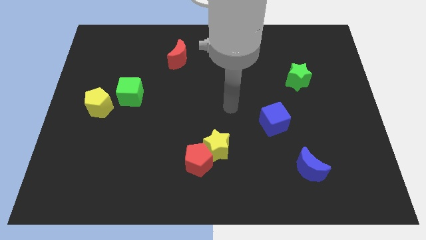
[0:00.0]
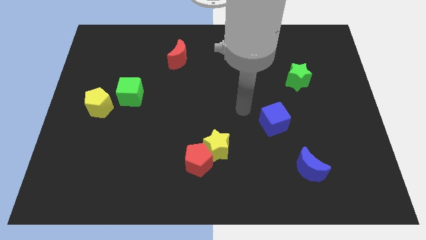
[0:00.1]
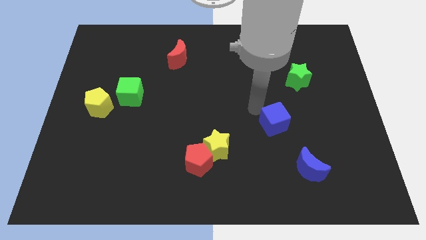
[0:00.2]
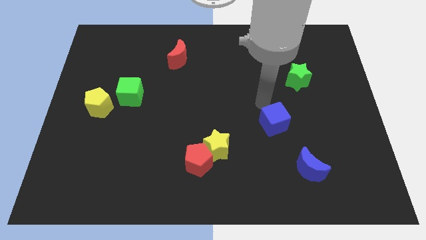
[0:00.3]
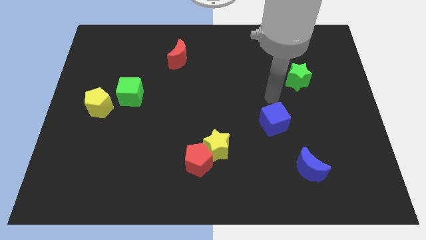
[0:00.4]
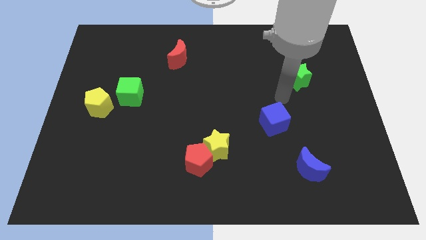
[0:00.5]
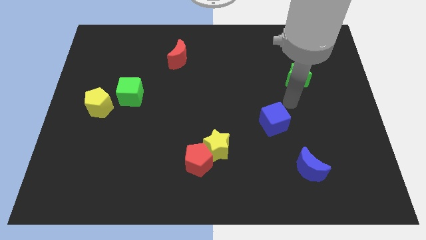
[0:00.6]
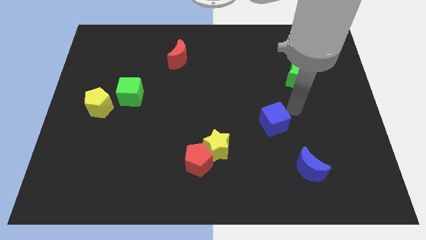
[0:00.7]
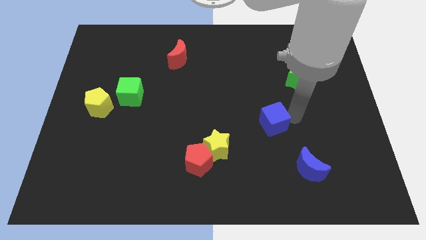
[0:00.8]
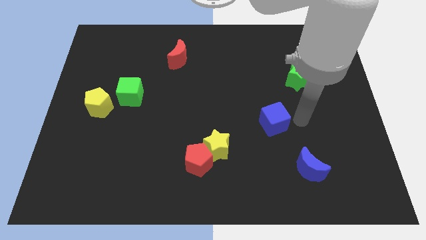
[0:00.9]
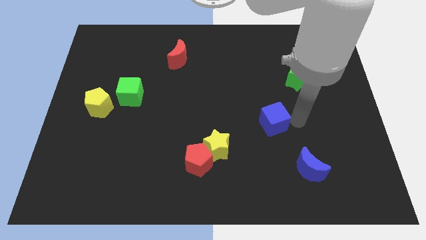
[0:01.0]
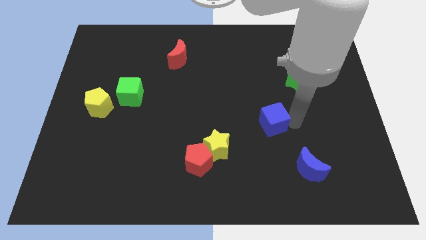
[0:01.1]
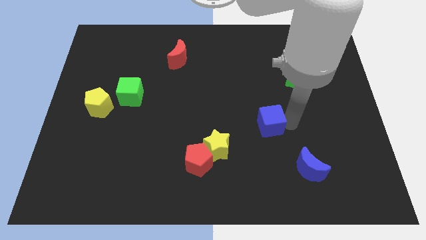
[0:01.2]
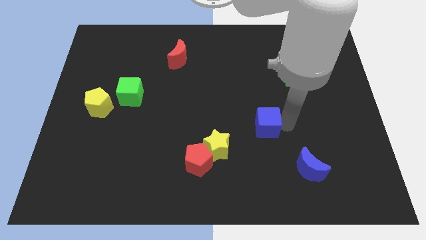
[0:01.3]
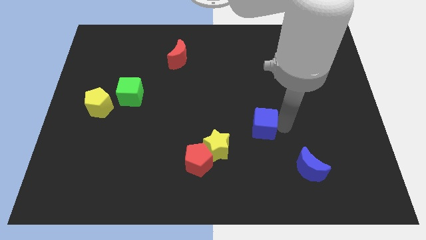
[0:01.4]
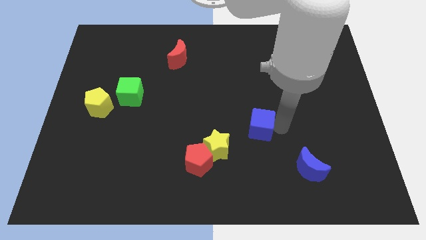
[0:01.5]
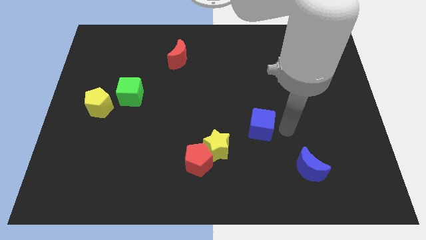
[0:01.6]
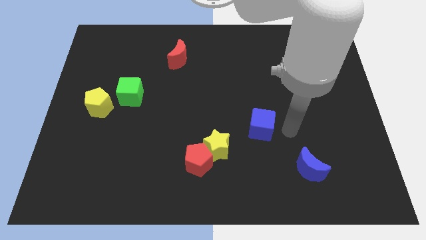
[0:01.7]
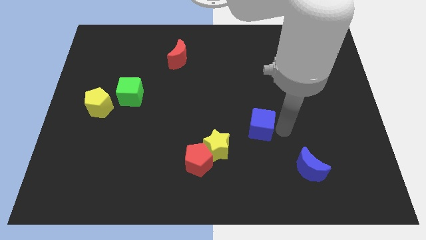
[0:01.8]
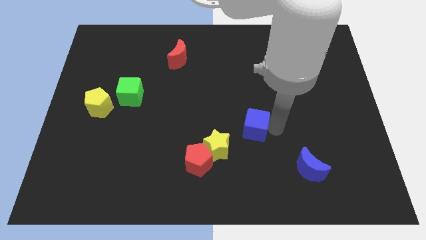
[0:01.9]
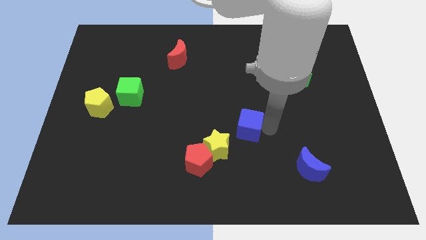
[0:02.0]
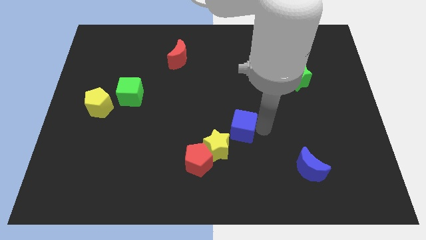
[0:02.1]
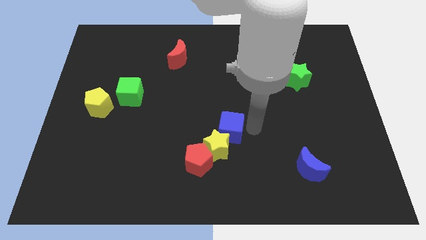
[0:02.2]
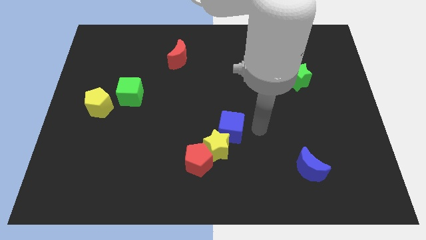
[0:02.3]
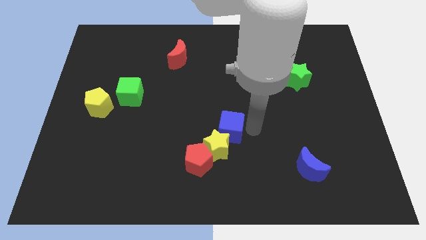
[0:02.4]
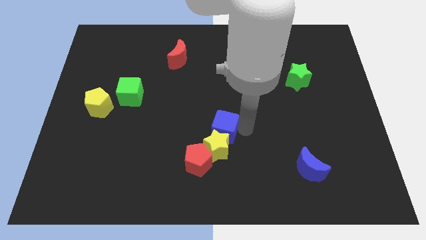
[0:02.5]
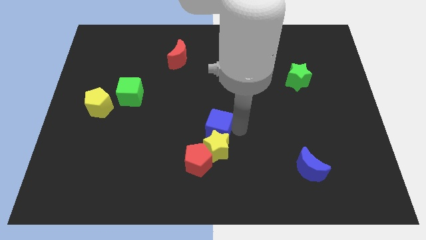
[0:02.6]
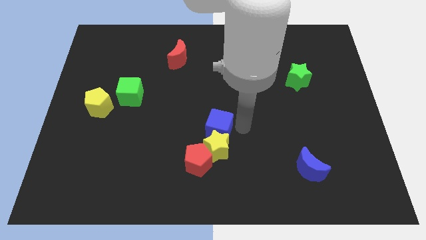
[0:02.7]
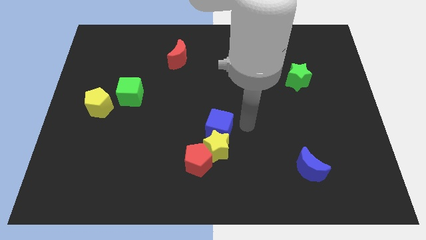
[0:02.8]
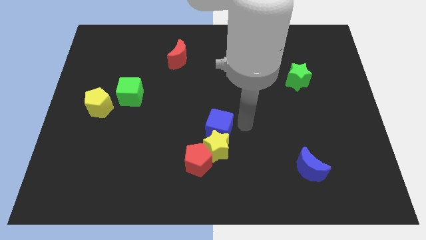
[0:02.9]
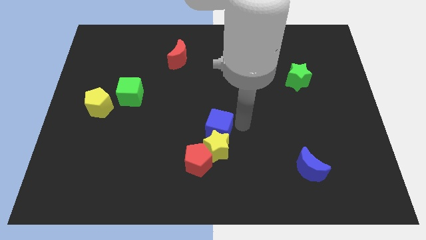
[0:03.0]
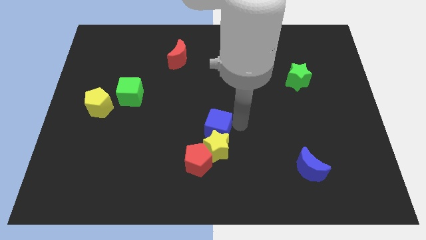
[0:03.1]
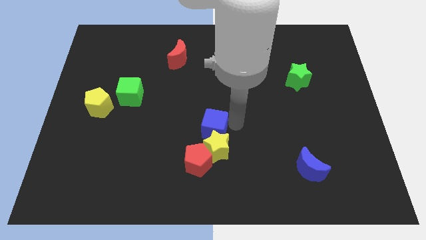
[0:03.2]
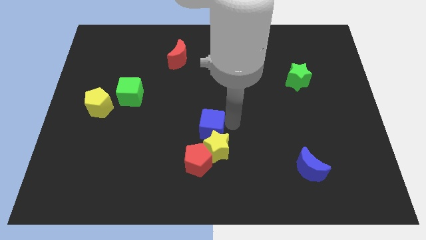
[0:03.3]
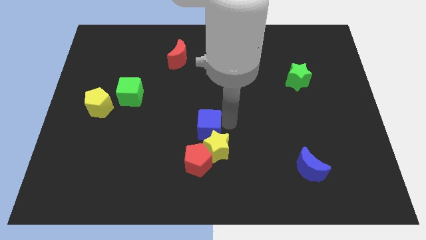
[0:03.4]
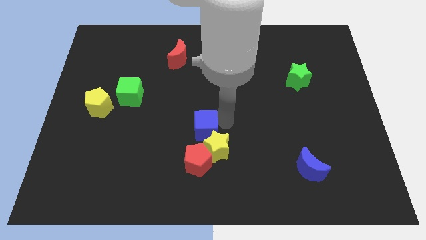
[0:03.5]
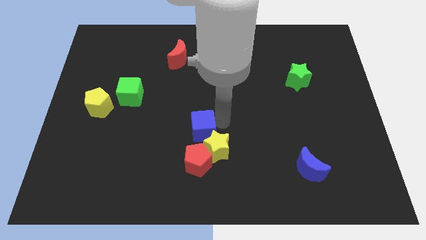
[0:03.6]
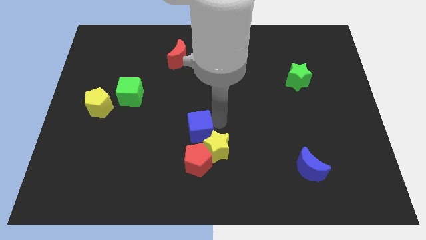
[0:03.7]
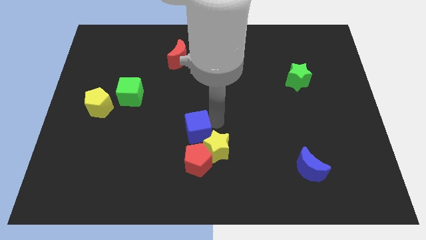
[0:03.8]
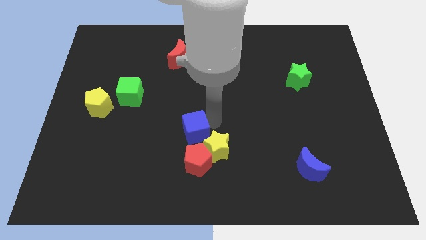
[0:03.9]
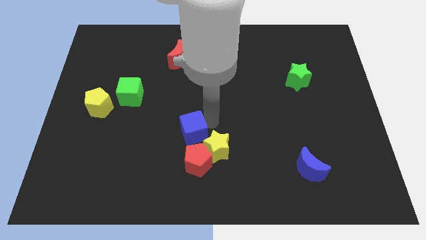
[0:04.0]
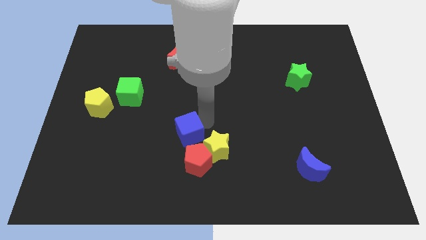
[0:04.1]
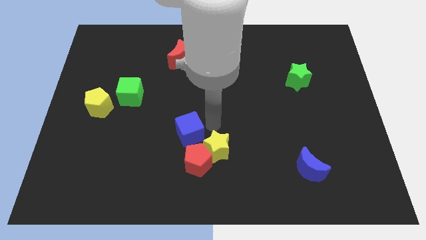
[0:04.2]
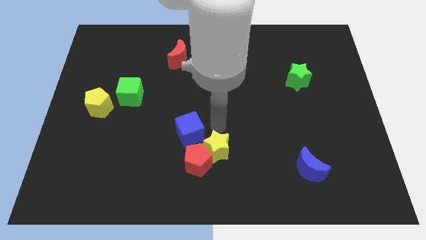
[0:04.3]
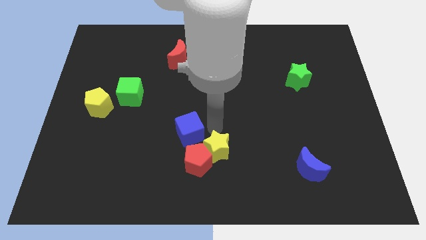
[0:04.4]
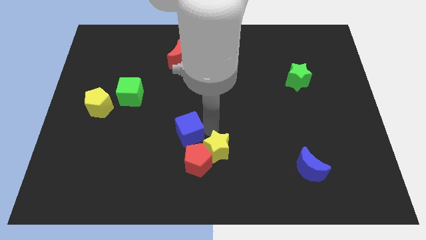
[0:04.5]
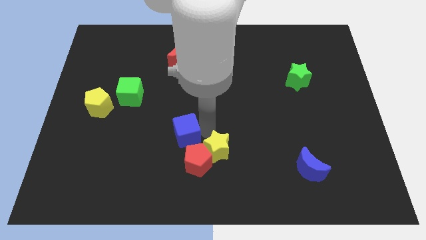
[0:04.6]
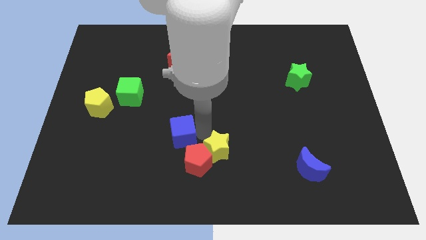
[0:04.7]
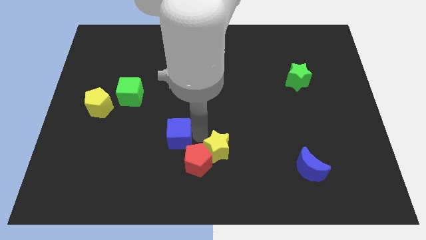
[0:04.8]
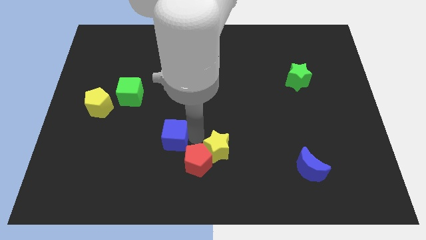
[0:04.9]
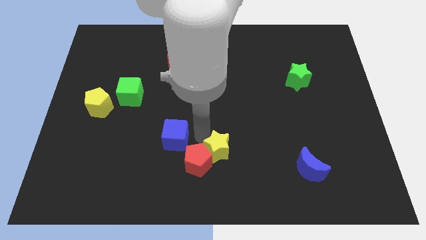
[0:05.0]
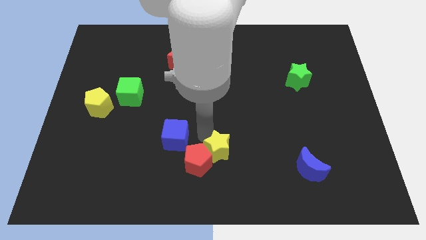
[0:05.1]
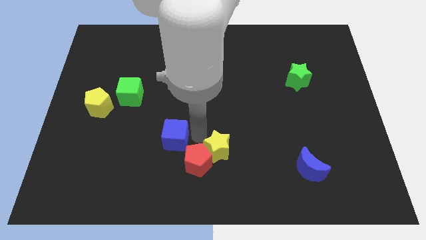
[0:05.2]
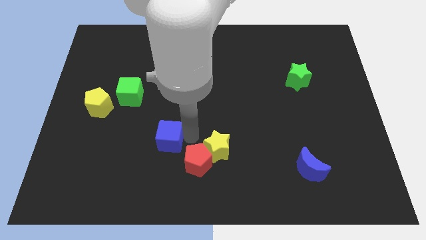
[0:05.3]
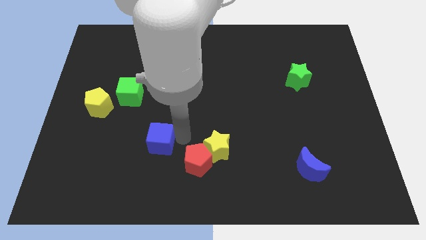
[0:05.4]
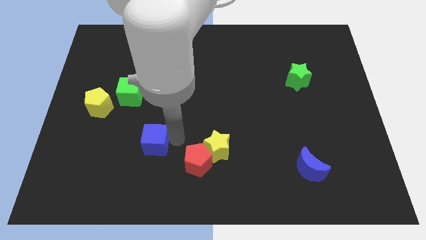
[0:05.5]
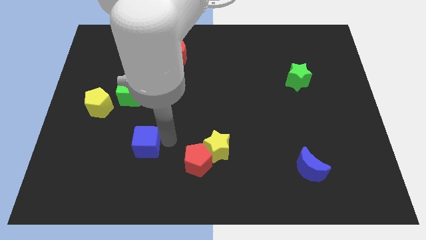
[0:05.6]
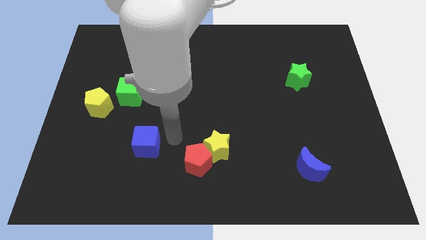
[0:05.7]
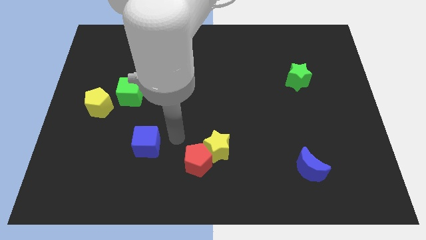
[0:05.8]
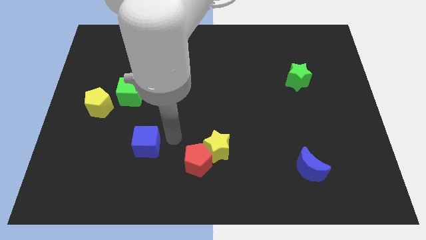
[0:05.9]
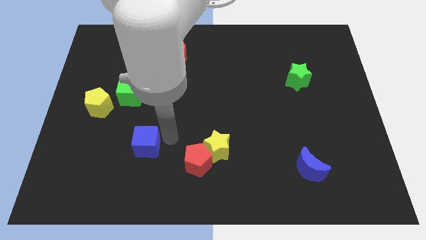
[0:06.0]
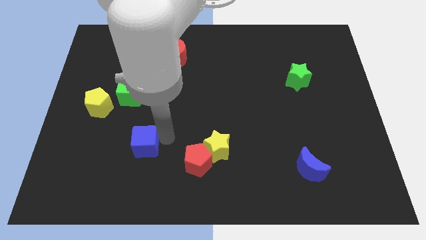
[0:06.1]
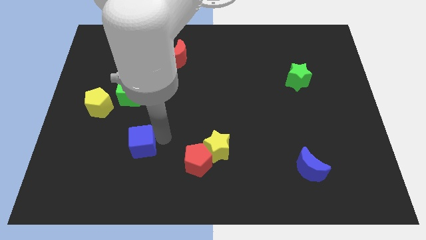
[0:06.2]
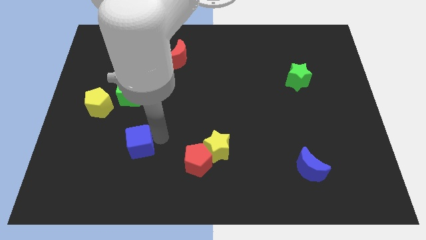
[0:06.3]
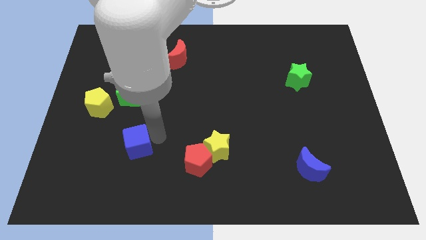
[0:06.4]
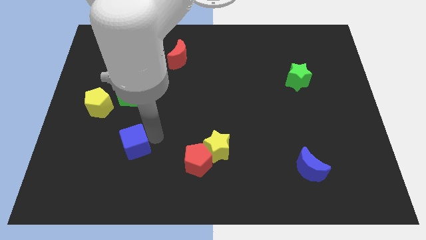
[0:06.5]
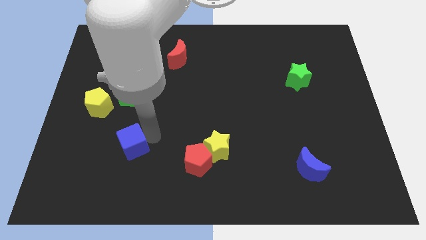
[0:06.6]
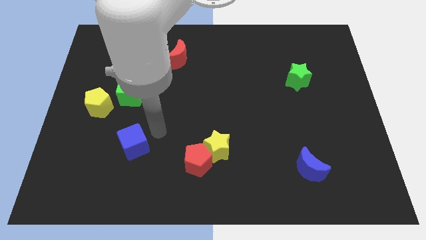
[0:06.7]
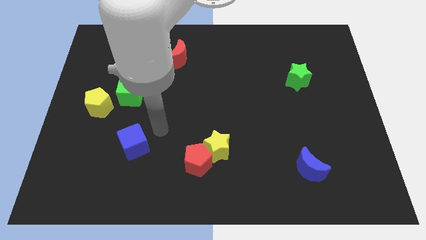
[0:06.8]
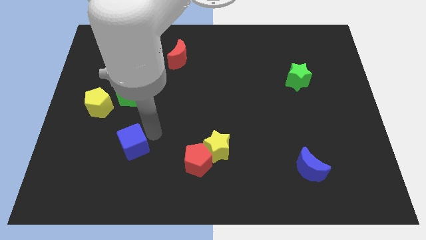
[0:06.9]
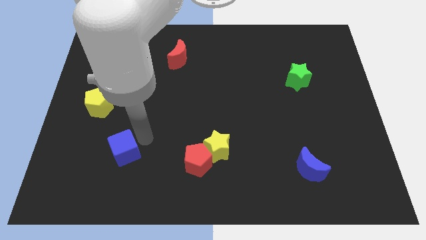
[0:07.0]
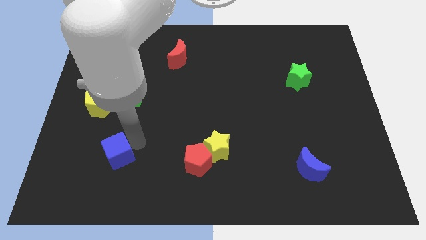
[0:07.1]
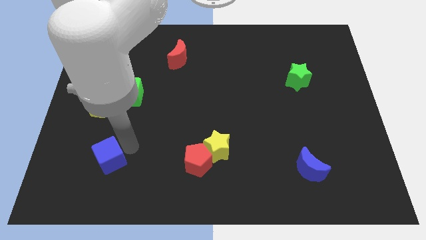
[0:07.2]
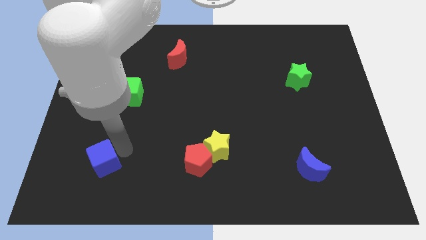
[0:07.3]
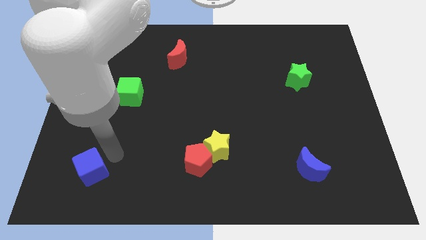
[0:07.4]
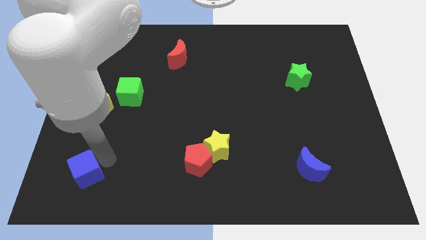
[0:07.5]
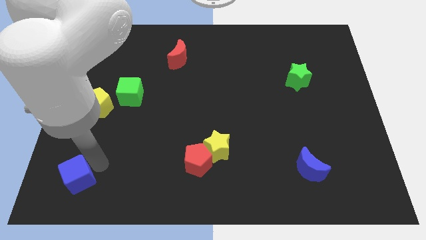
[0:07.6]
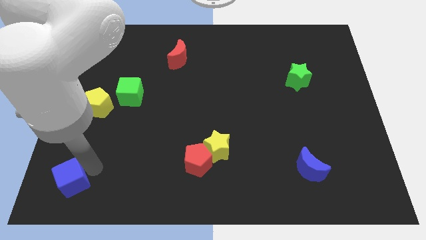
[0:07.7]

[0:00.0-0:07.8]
move the blue cube to the lower left corner
